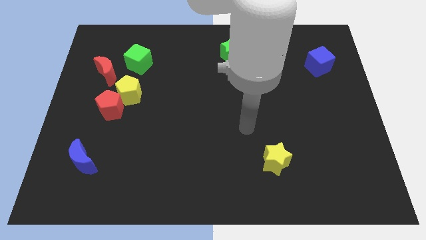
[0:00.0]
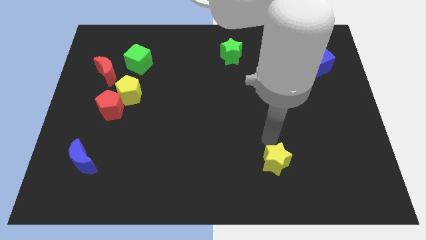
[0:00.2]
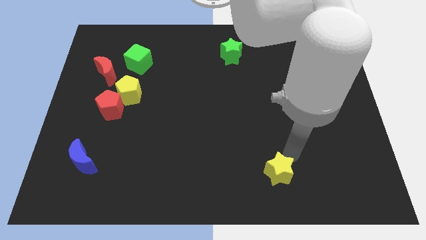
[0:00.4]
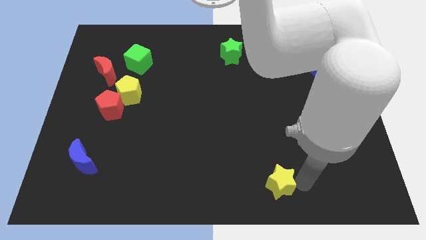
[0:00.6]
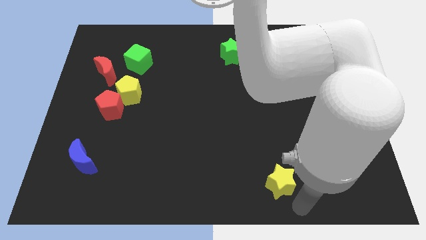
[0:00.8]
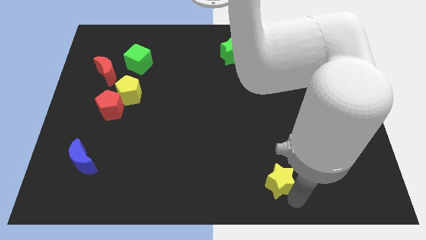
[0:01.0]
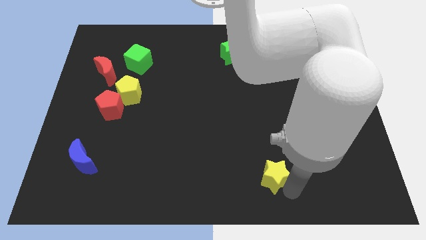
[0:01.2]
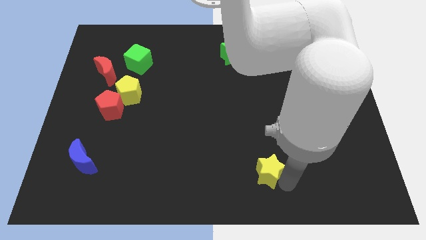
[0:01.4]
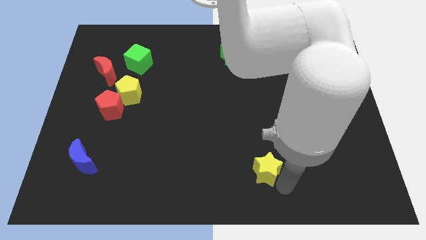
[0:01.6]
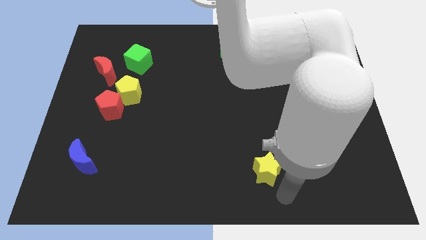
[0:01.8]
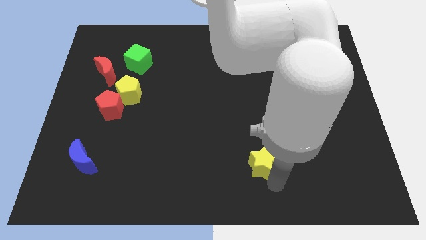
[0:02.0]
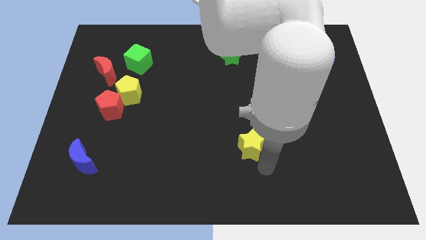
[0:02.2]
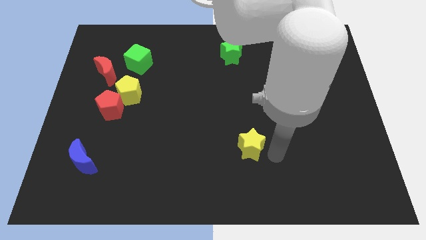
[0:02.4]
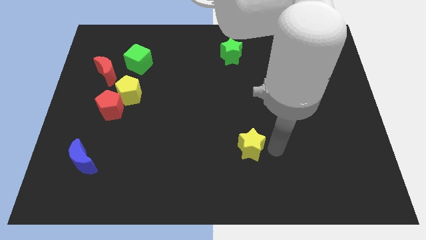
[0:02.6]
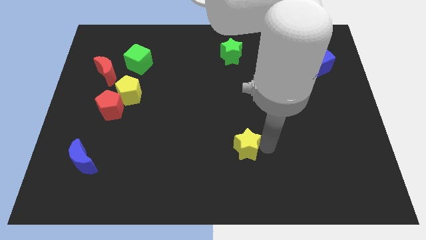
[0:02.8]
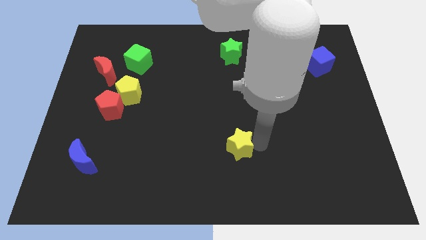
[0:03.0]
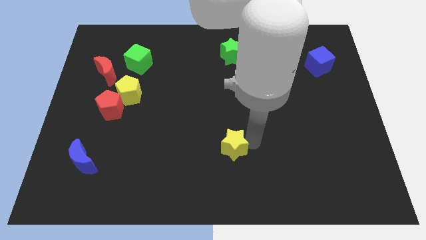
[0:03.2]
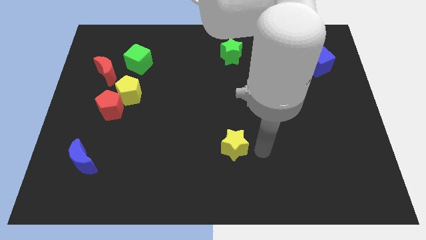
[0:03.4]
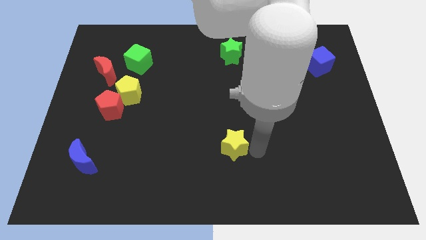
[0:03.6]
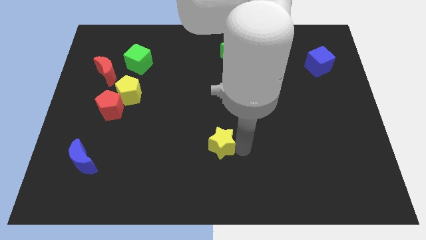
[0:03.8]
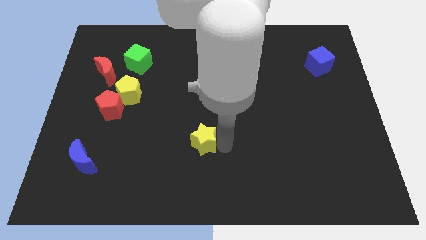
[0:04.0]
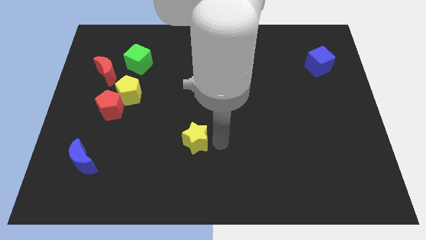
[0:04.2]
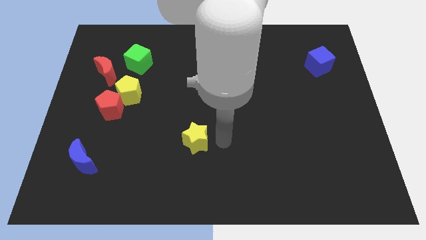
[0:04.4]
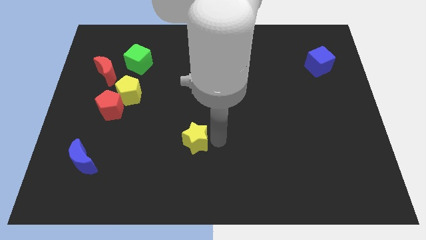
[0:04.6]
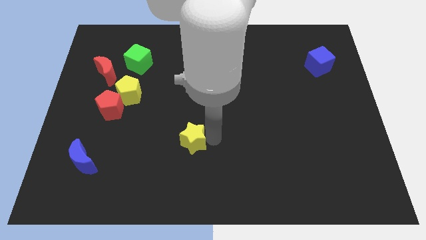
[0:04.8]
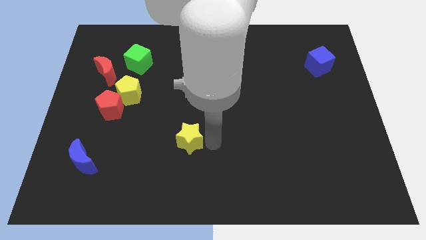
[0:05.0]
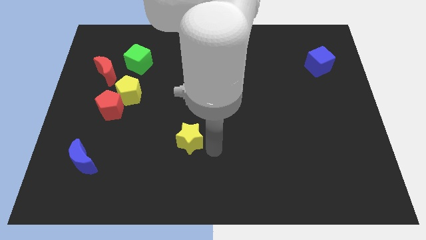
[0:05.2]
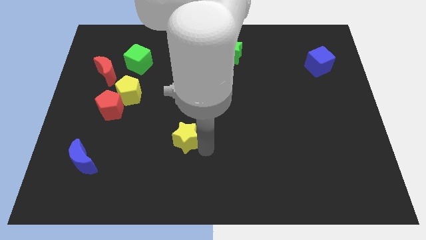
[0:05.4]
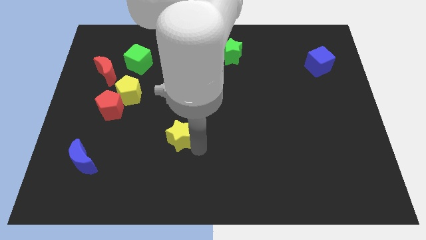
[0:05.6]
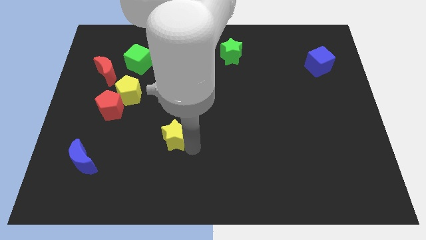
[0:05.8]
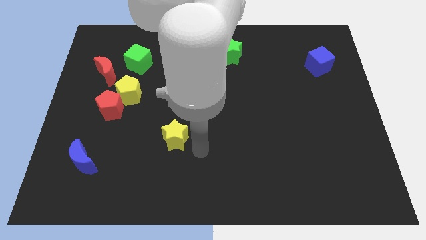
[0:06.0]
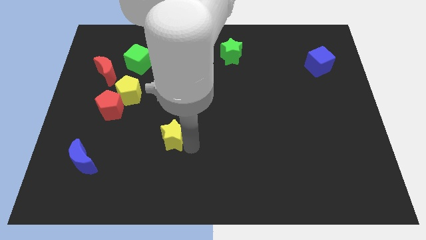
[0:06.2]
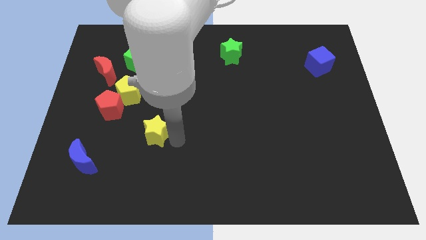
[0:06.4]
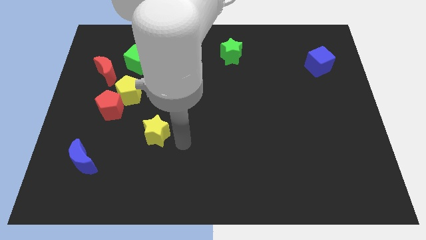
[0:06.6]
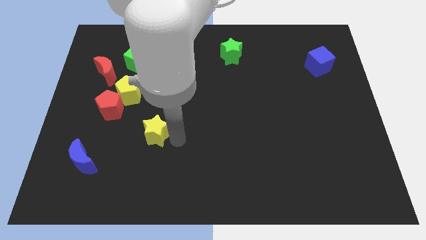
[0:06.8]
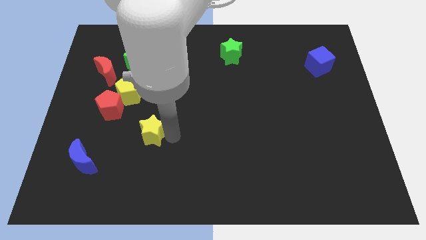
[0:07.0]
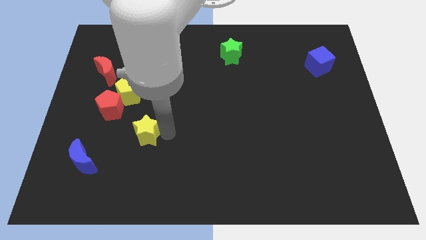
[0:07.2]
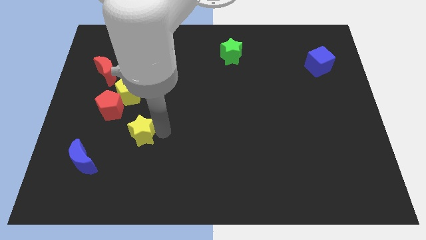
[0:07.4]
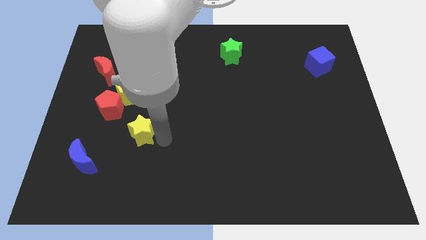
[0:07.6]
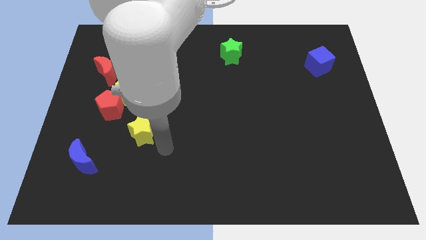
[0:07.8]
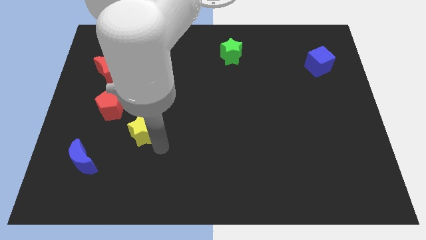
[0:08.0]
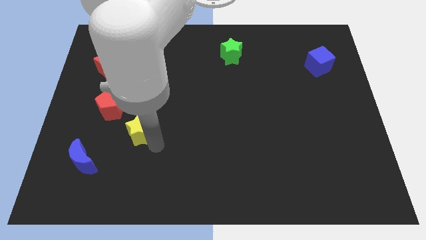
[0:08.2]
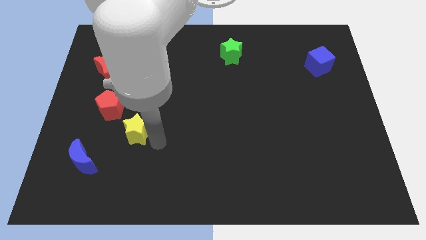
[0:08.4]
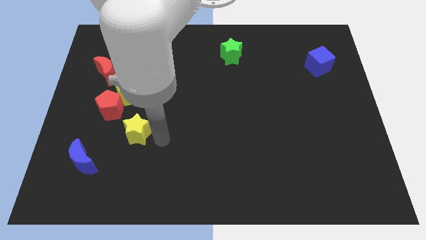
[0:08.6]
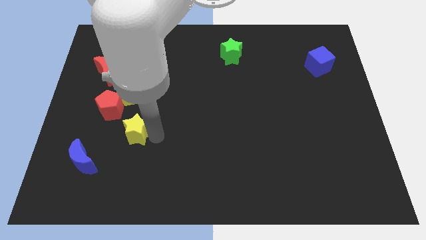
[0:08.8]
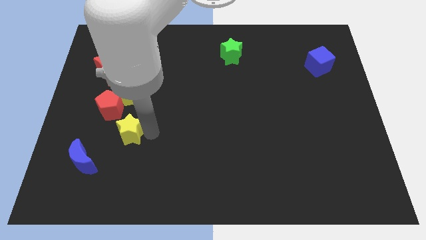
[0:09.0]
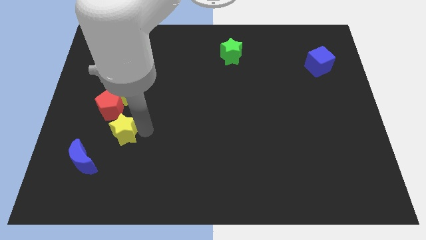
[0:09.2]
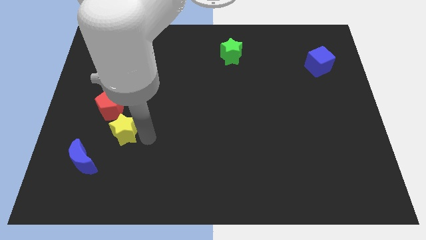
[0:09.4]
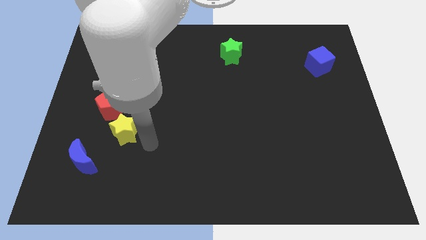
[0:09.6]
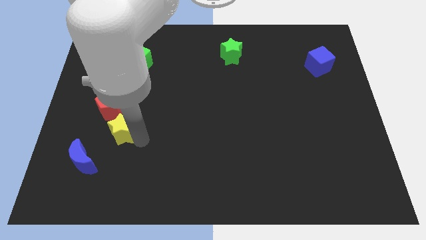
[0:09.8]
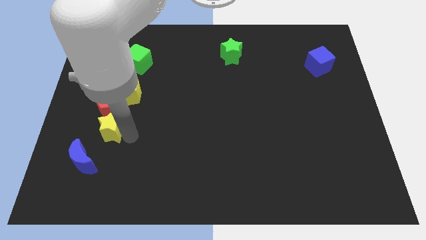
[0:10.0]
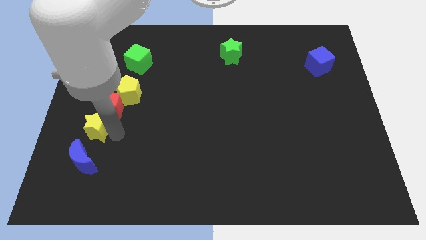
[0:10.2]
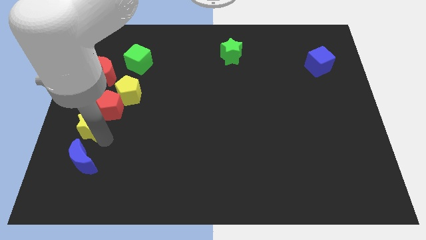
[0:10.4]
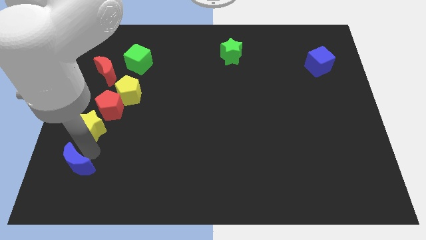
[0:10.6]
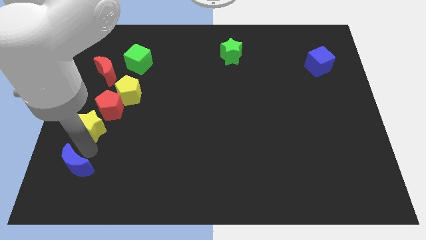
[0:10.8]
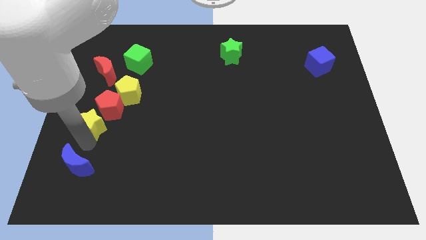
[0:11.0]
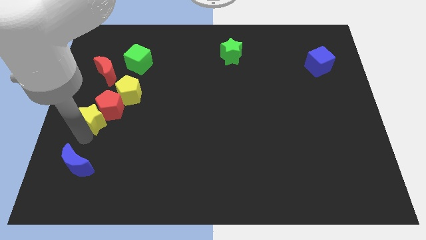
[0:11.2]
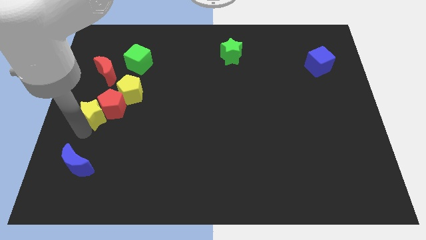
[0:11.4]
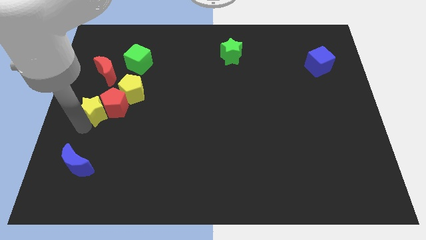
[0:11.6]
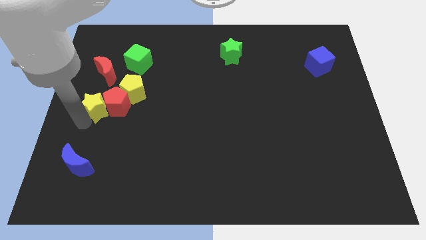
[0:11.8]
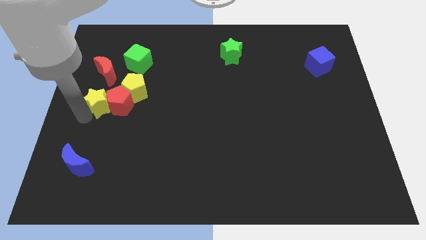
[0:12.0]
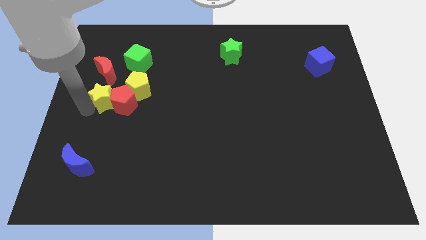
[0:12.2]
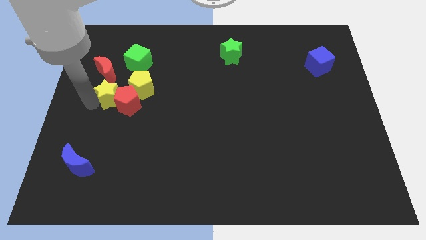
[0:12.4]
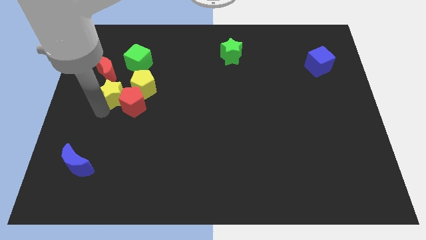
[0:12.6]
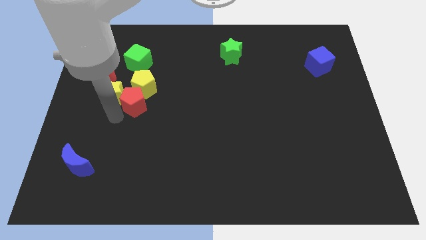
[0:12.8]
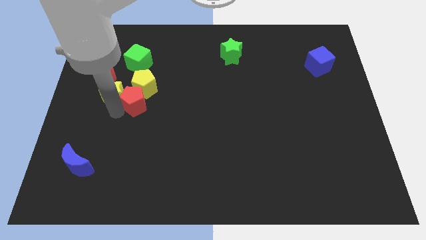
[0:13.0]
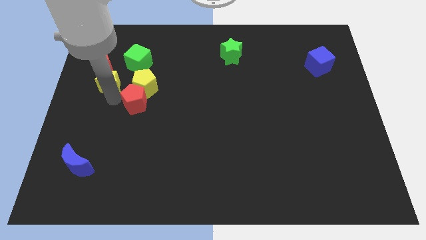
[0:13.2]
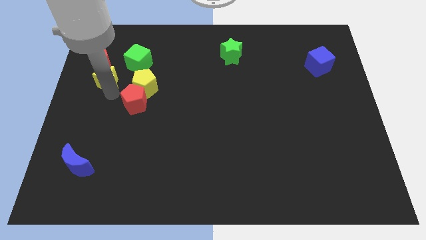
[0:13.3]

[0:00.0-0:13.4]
put the yellow star towards the red moon
